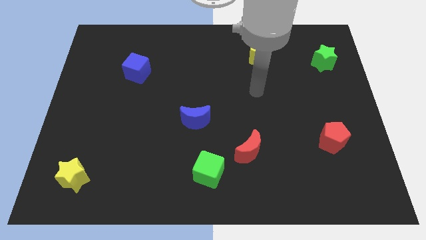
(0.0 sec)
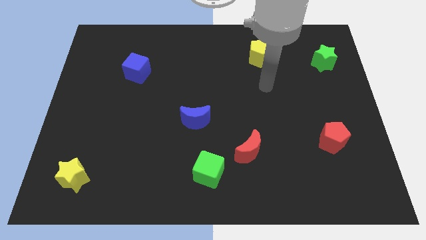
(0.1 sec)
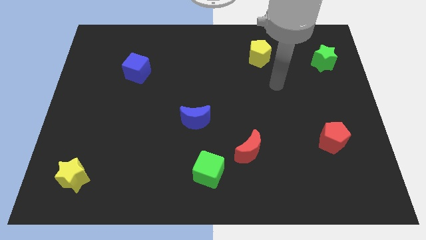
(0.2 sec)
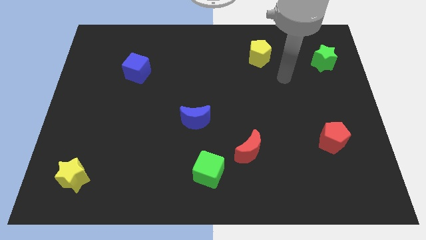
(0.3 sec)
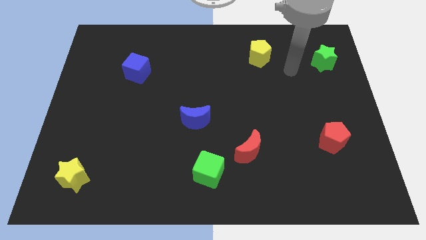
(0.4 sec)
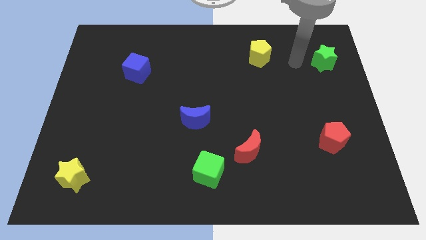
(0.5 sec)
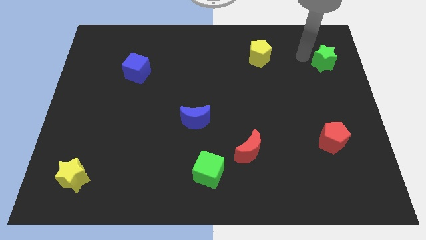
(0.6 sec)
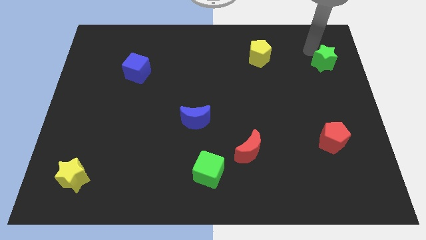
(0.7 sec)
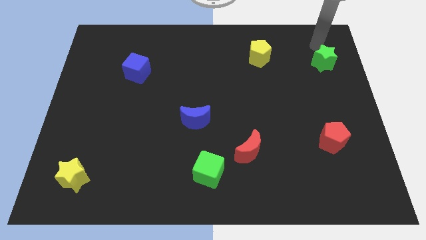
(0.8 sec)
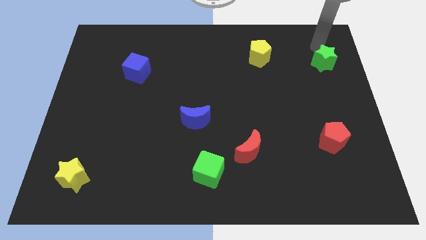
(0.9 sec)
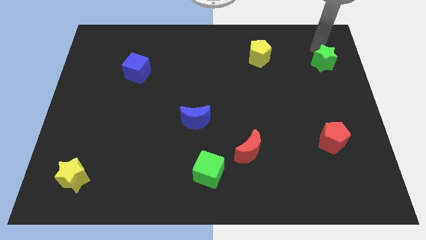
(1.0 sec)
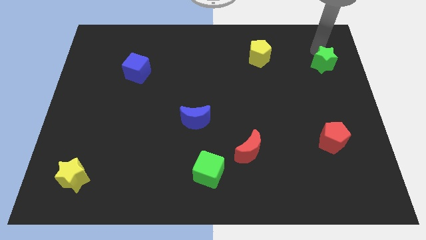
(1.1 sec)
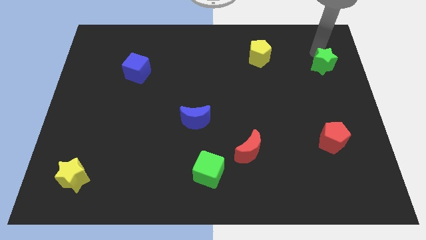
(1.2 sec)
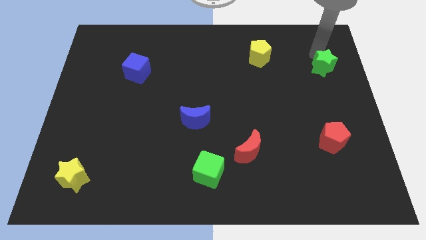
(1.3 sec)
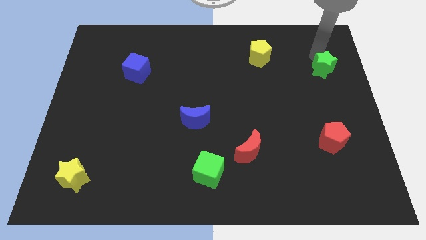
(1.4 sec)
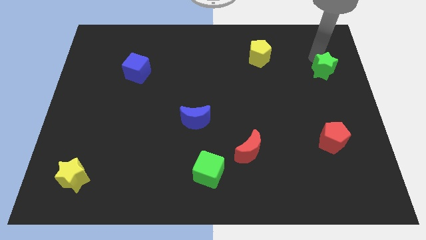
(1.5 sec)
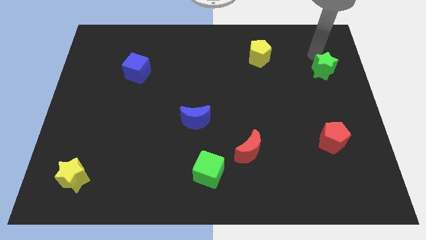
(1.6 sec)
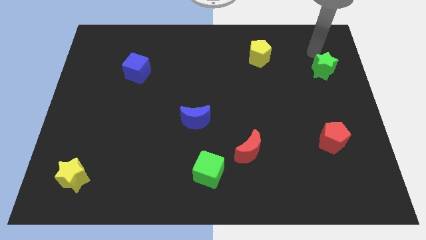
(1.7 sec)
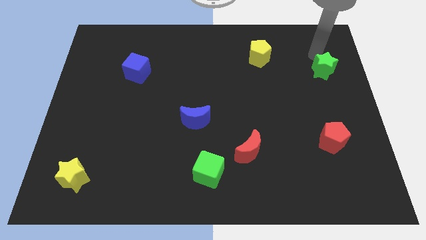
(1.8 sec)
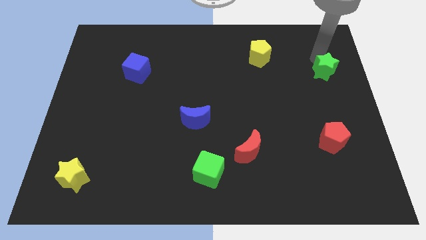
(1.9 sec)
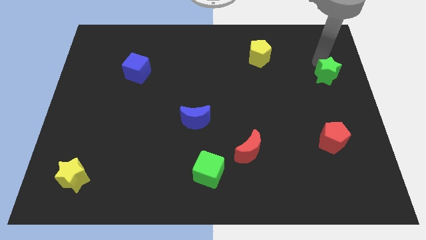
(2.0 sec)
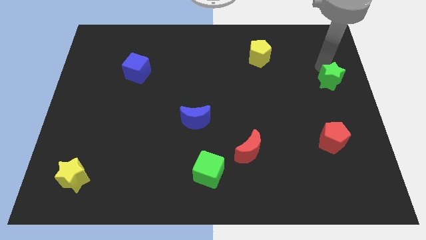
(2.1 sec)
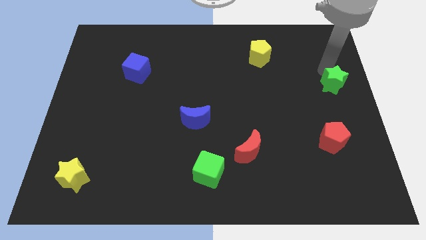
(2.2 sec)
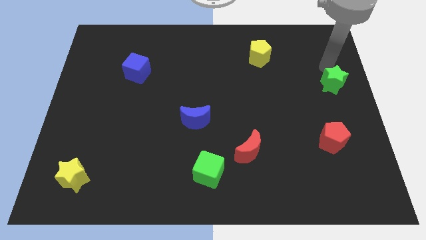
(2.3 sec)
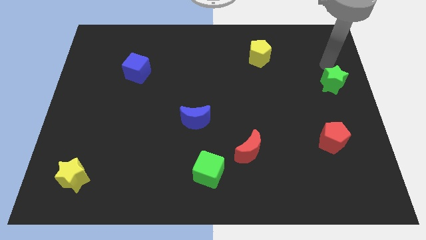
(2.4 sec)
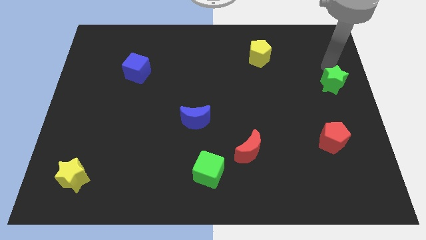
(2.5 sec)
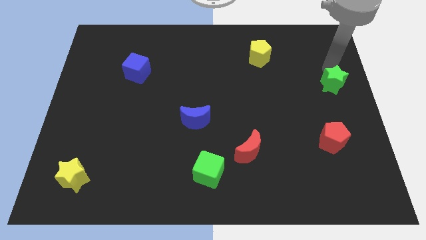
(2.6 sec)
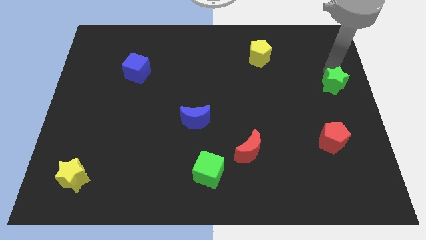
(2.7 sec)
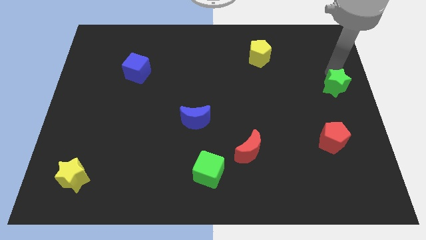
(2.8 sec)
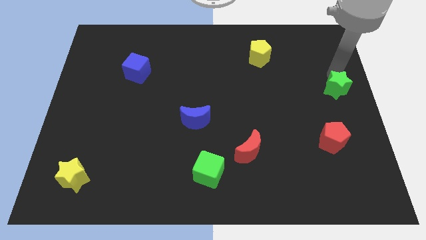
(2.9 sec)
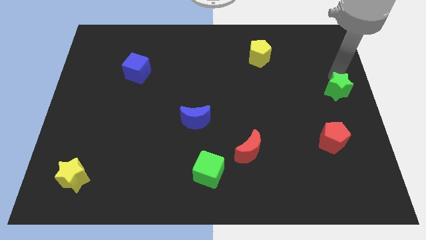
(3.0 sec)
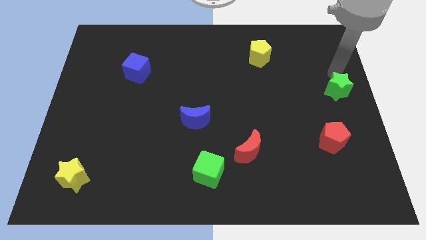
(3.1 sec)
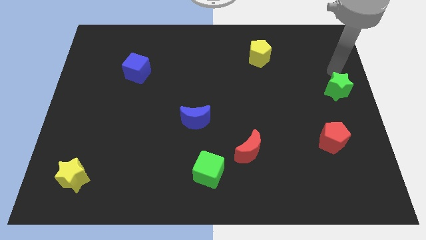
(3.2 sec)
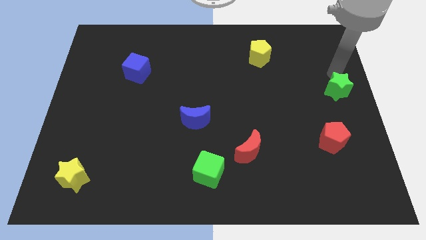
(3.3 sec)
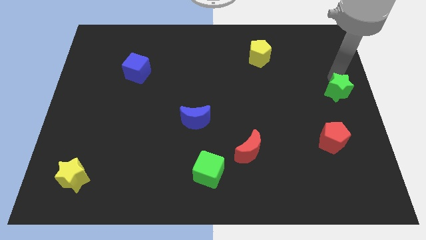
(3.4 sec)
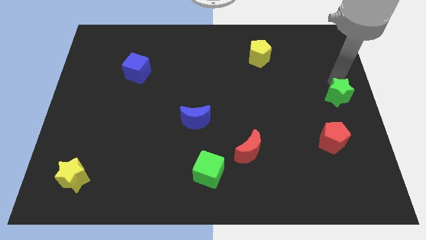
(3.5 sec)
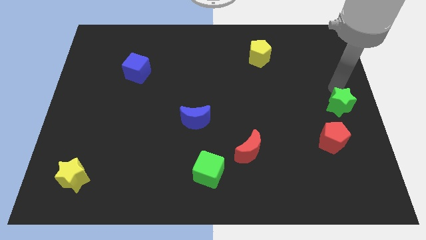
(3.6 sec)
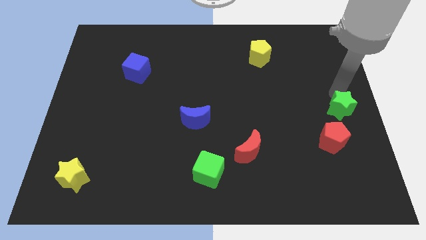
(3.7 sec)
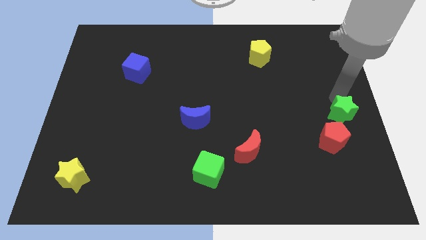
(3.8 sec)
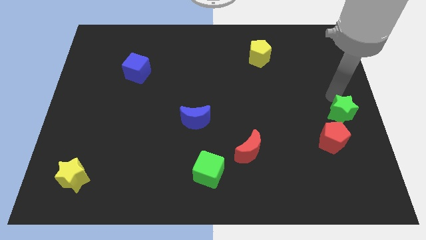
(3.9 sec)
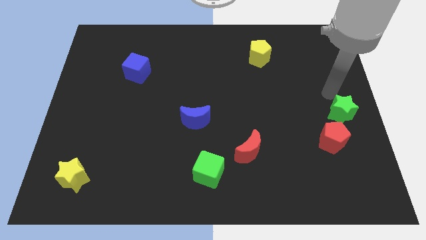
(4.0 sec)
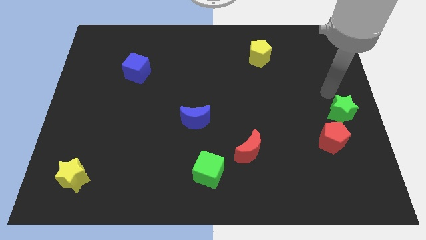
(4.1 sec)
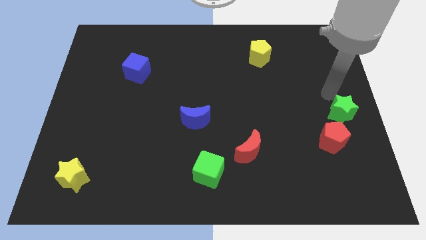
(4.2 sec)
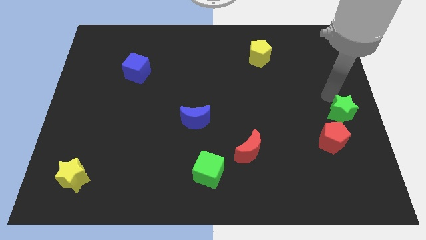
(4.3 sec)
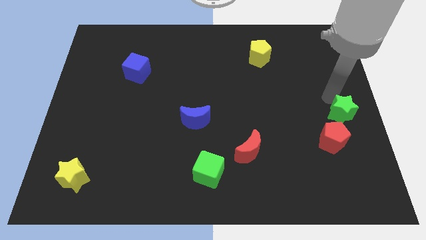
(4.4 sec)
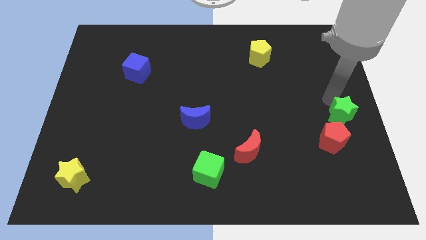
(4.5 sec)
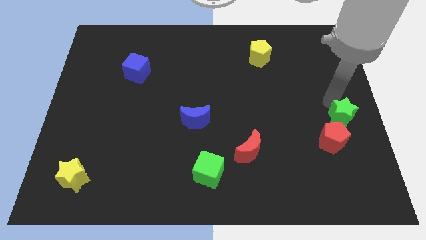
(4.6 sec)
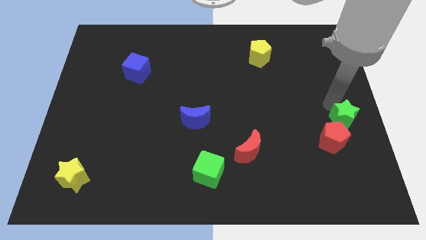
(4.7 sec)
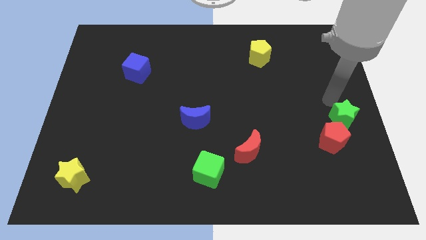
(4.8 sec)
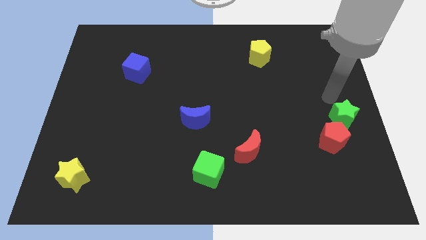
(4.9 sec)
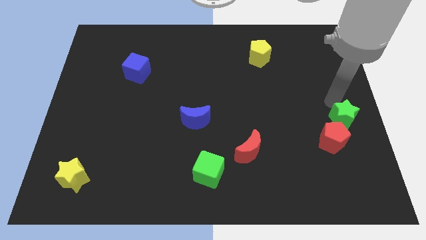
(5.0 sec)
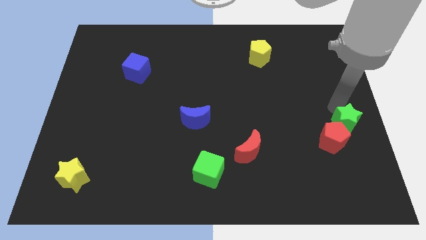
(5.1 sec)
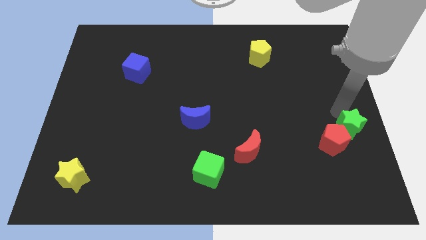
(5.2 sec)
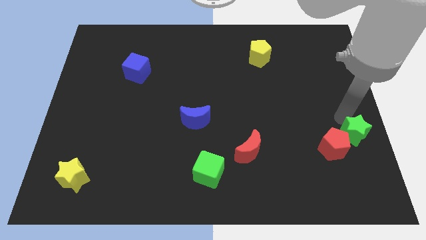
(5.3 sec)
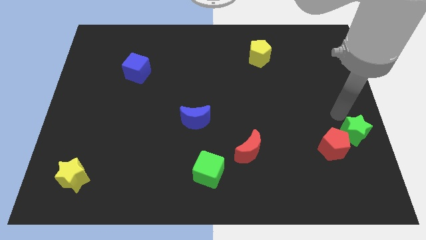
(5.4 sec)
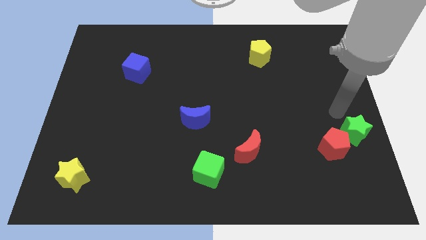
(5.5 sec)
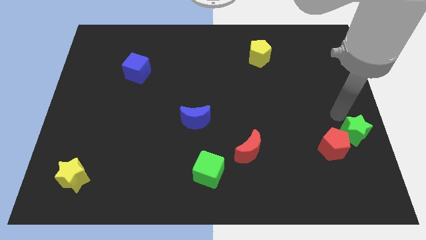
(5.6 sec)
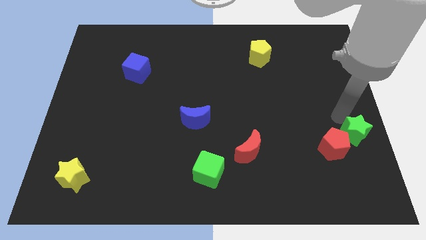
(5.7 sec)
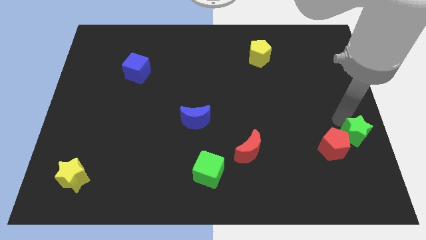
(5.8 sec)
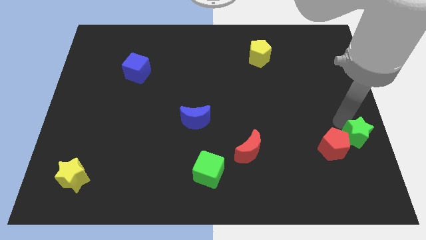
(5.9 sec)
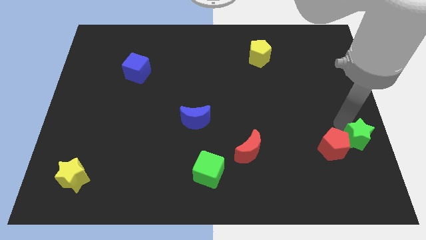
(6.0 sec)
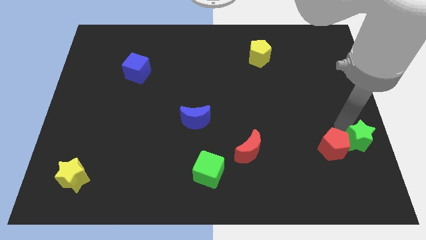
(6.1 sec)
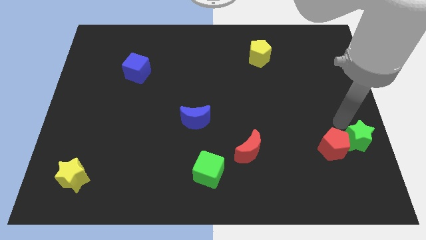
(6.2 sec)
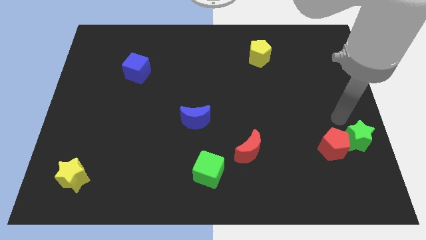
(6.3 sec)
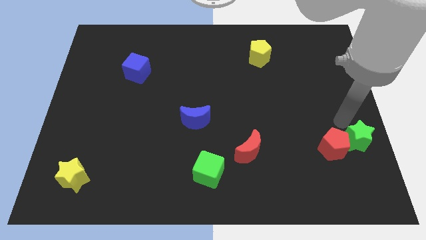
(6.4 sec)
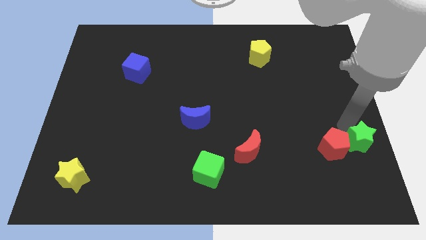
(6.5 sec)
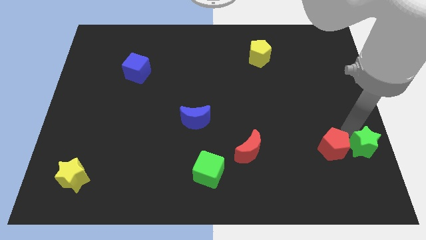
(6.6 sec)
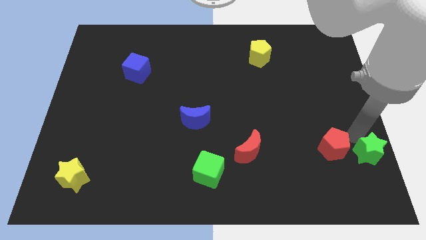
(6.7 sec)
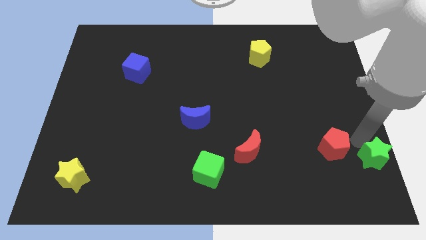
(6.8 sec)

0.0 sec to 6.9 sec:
move the green star to the bottom right of the board

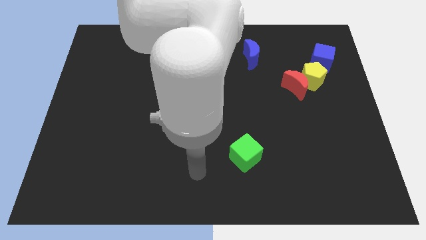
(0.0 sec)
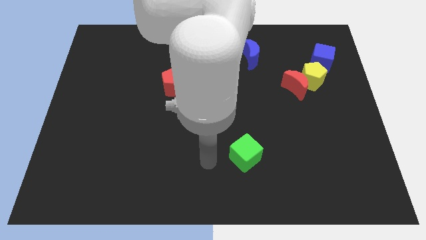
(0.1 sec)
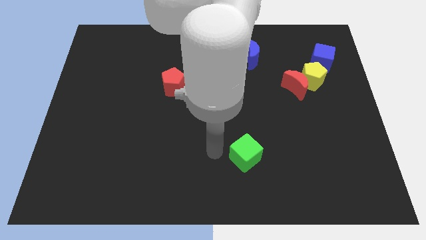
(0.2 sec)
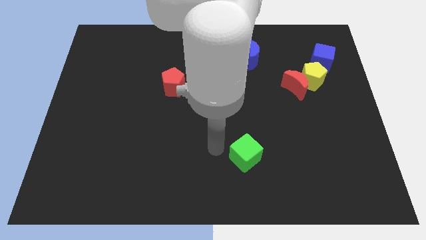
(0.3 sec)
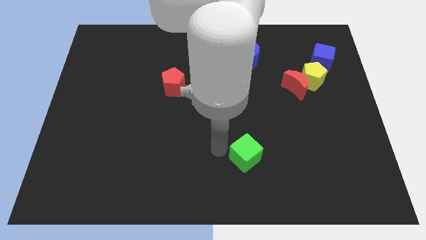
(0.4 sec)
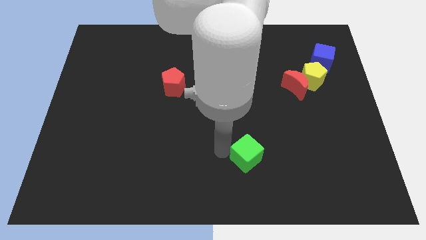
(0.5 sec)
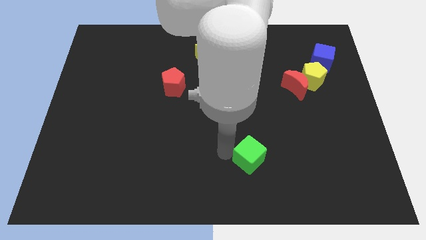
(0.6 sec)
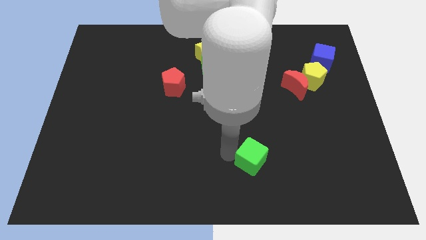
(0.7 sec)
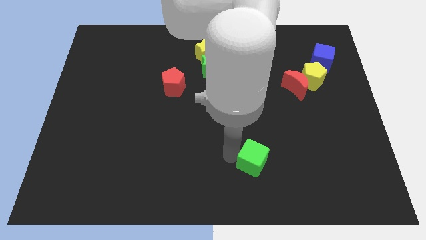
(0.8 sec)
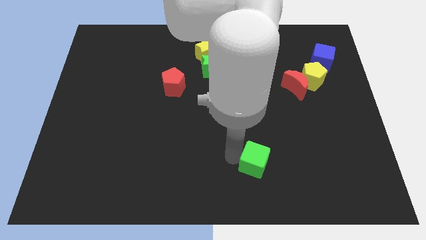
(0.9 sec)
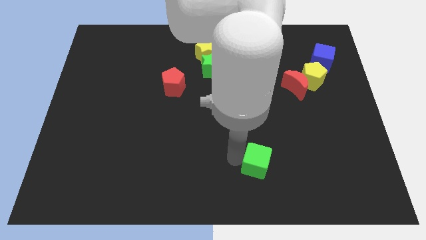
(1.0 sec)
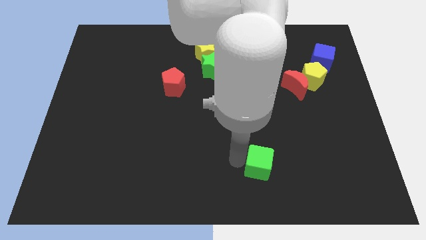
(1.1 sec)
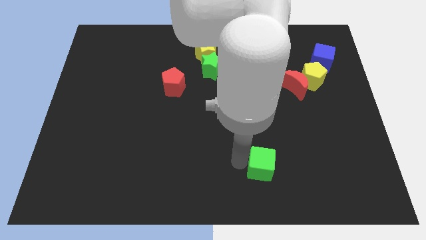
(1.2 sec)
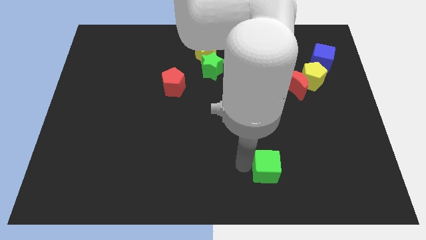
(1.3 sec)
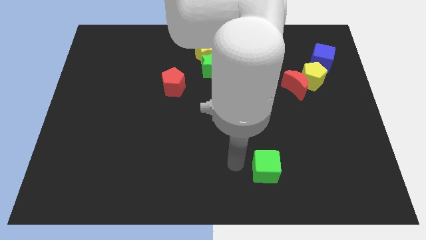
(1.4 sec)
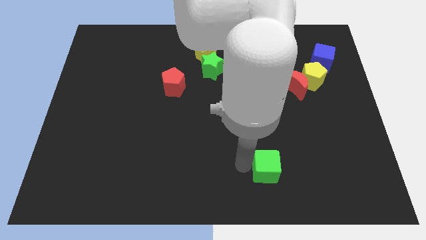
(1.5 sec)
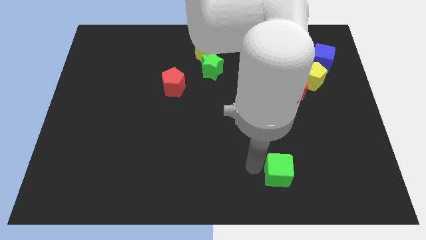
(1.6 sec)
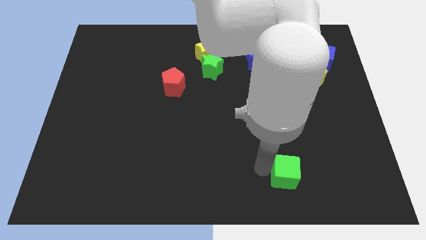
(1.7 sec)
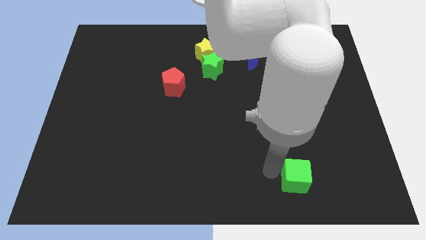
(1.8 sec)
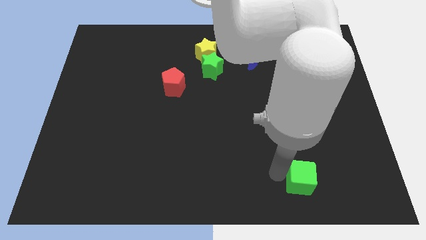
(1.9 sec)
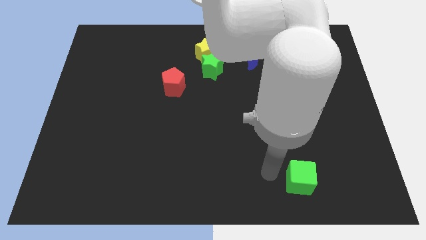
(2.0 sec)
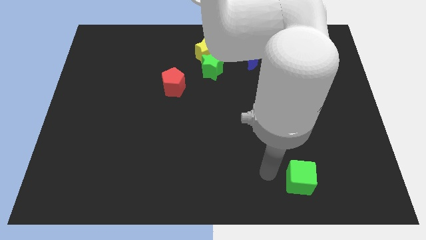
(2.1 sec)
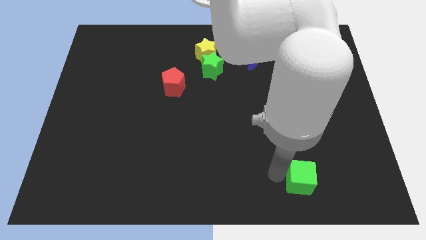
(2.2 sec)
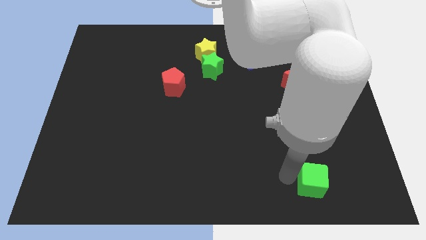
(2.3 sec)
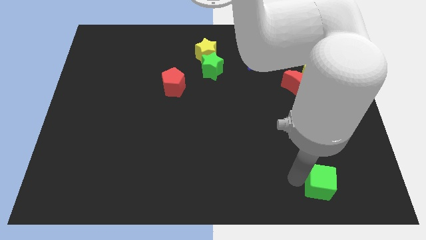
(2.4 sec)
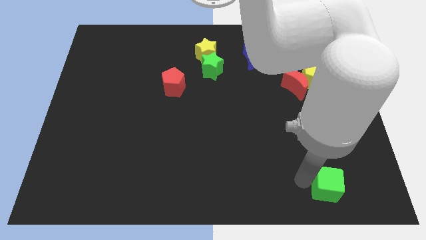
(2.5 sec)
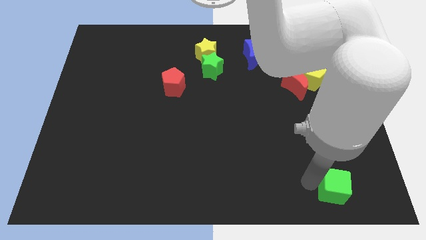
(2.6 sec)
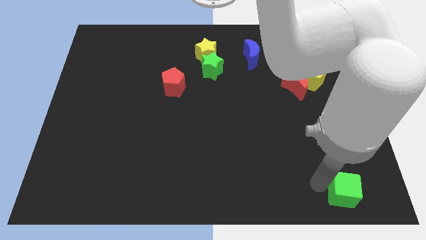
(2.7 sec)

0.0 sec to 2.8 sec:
push the green cube to the bottom right
